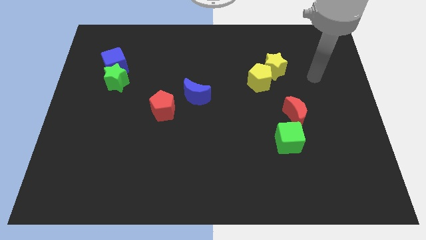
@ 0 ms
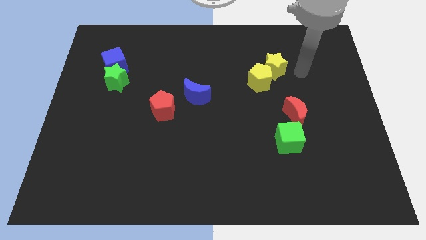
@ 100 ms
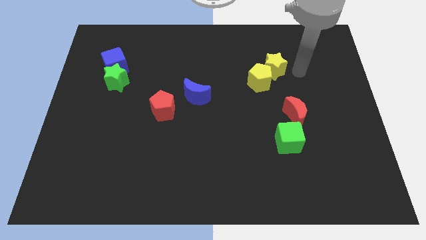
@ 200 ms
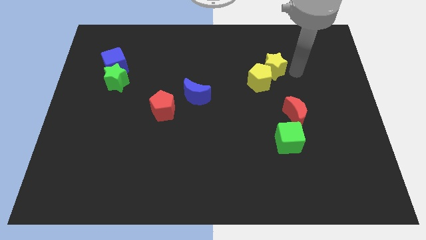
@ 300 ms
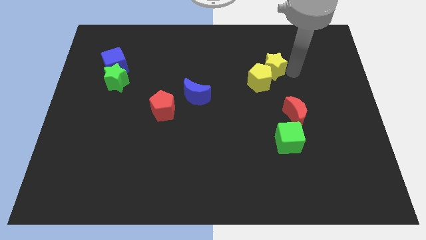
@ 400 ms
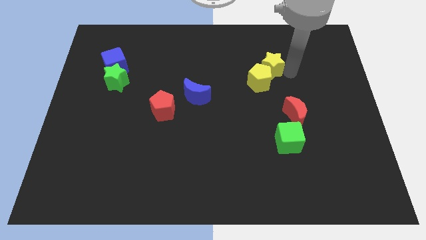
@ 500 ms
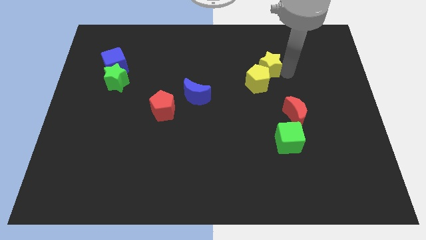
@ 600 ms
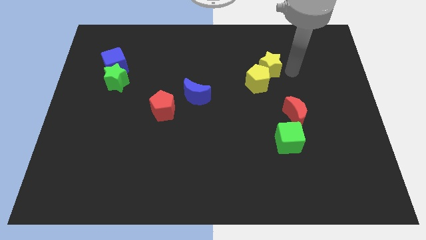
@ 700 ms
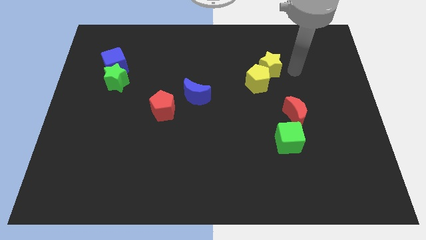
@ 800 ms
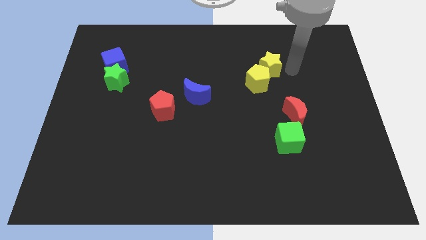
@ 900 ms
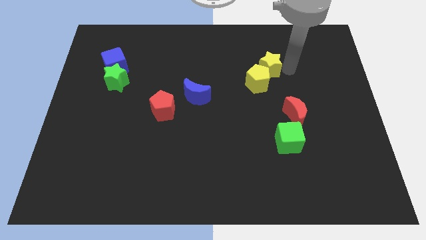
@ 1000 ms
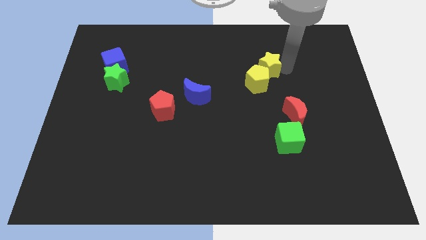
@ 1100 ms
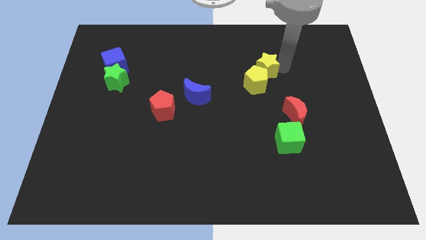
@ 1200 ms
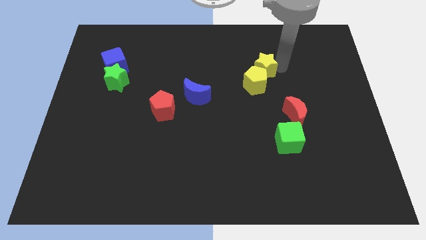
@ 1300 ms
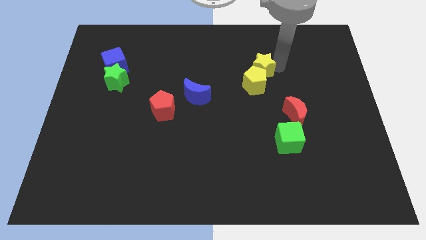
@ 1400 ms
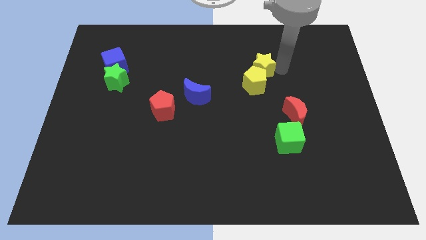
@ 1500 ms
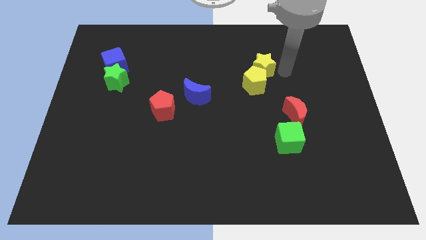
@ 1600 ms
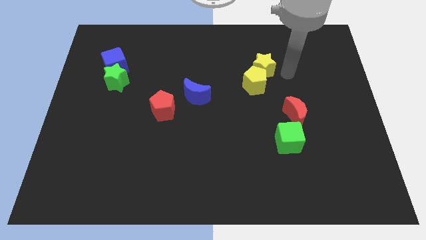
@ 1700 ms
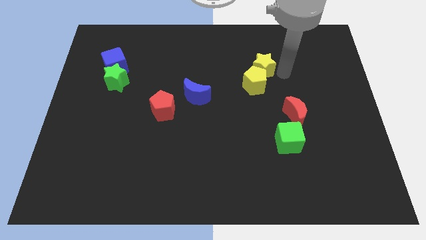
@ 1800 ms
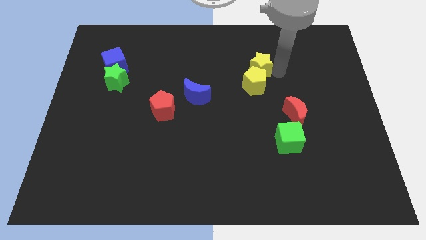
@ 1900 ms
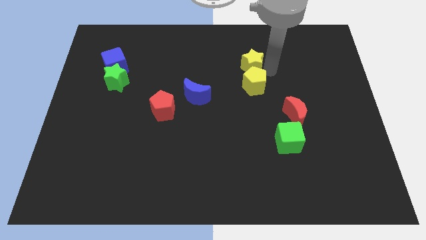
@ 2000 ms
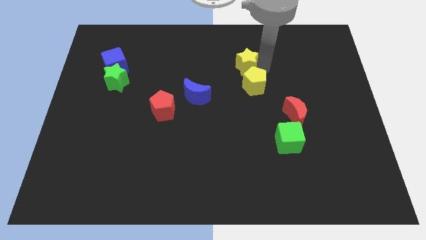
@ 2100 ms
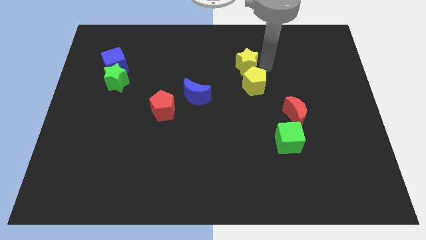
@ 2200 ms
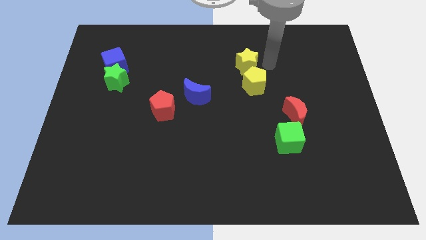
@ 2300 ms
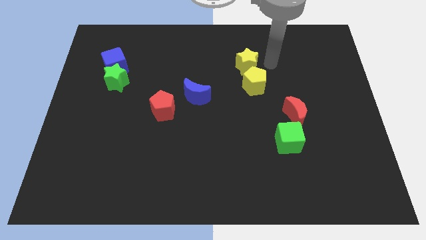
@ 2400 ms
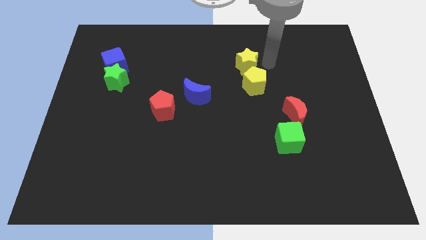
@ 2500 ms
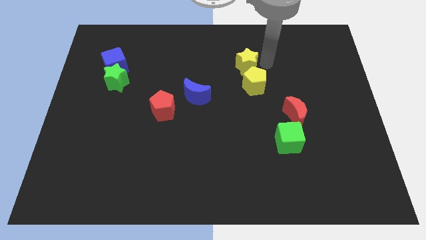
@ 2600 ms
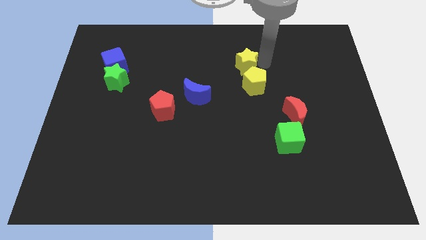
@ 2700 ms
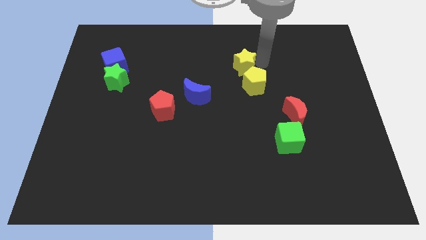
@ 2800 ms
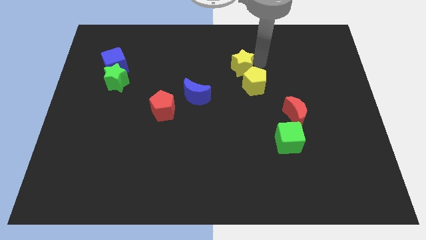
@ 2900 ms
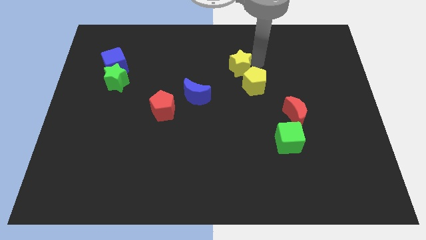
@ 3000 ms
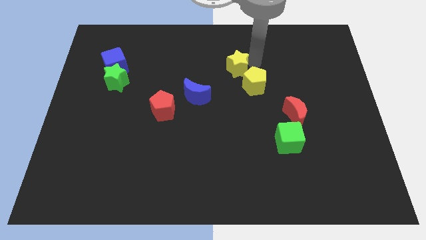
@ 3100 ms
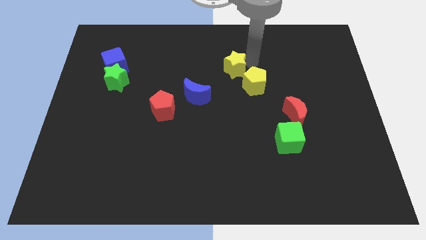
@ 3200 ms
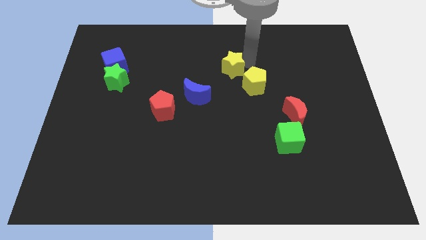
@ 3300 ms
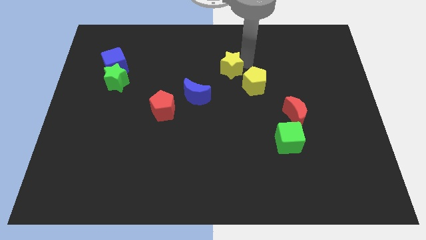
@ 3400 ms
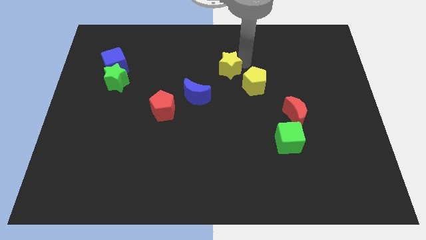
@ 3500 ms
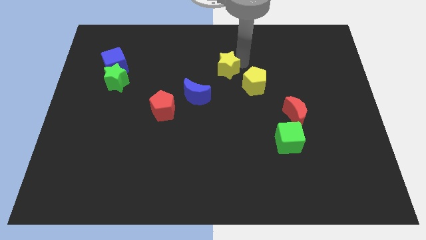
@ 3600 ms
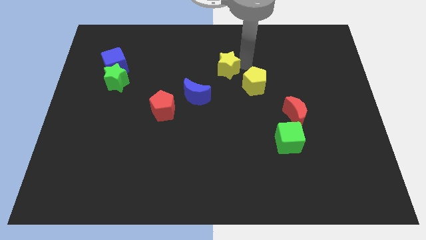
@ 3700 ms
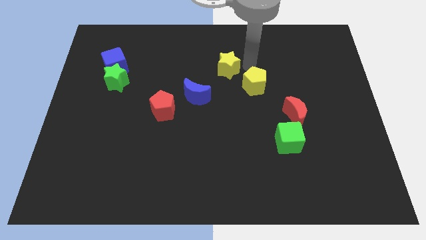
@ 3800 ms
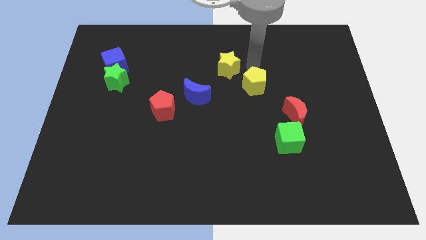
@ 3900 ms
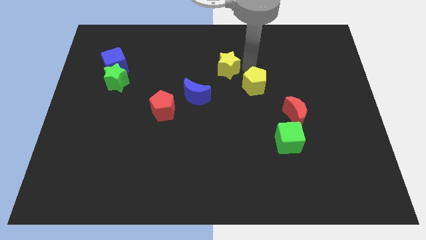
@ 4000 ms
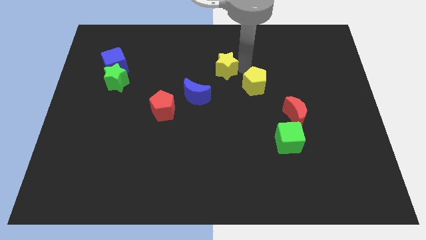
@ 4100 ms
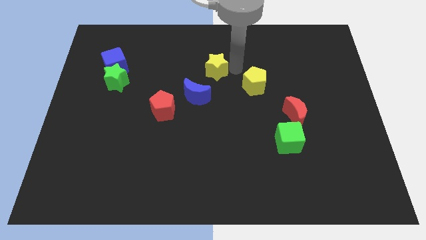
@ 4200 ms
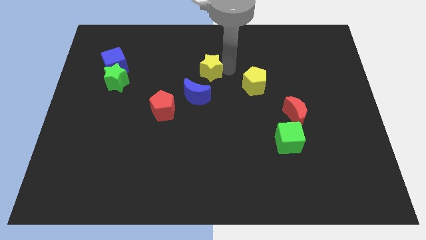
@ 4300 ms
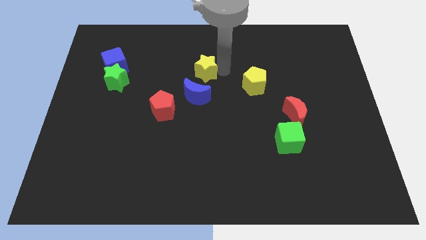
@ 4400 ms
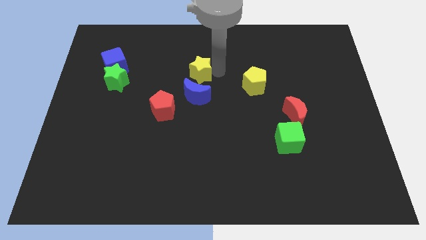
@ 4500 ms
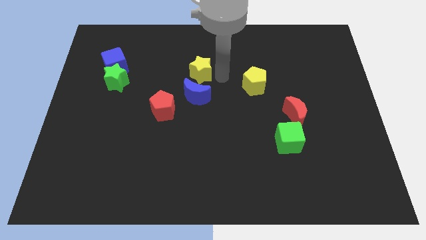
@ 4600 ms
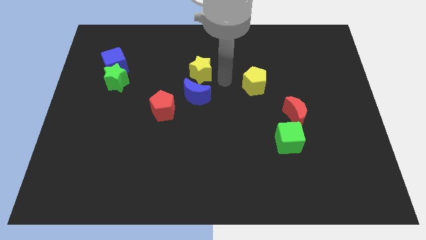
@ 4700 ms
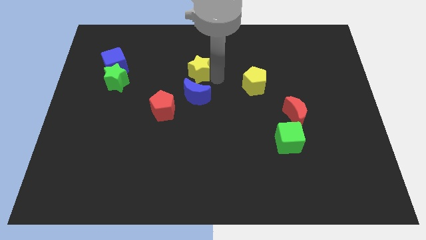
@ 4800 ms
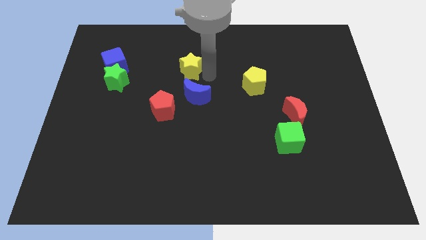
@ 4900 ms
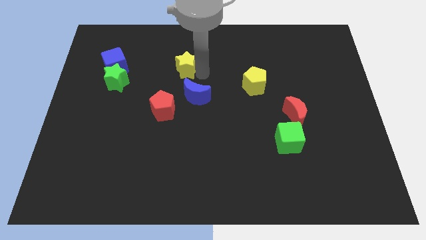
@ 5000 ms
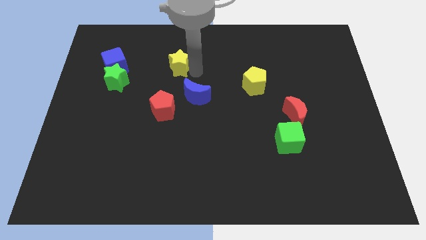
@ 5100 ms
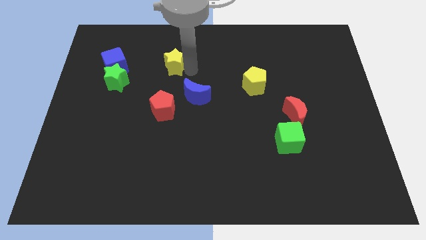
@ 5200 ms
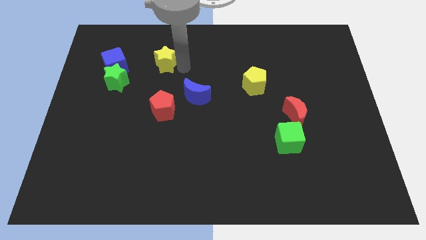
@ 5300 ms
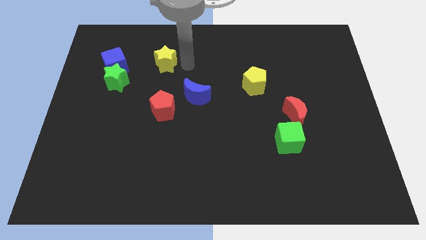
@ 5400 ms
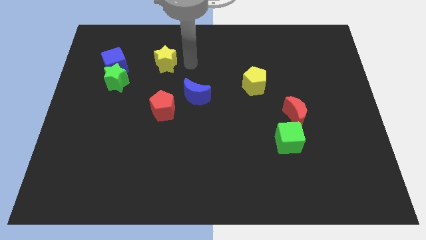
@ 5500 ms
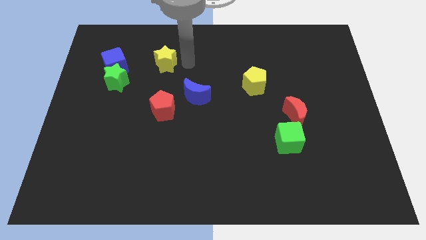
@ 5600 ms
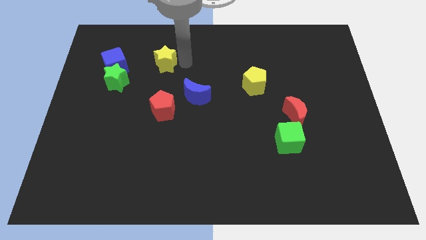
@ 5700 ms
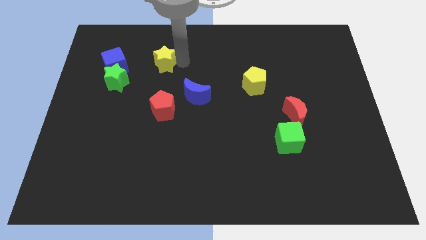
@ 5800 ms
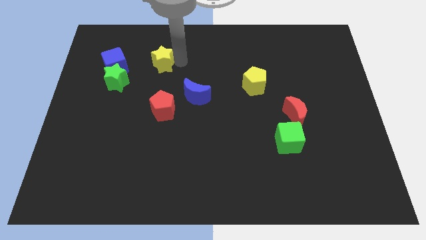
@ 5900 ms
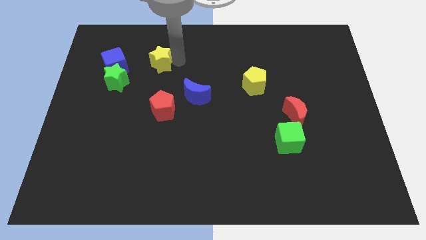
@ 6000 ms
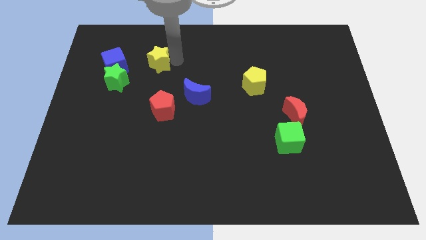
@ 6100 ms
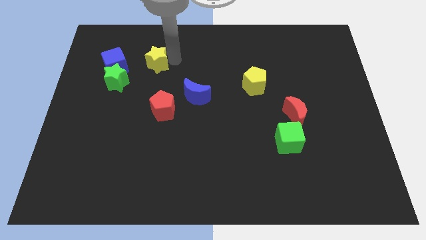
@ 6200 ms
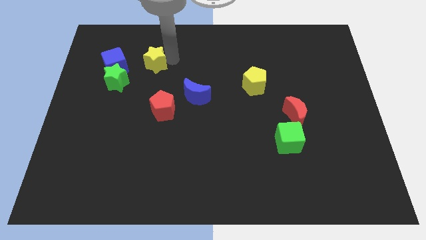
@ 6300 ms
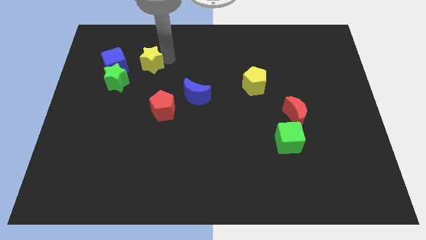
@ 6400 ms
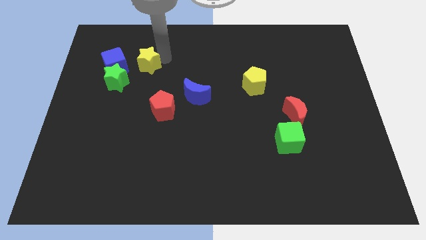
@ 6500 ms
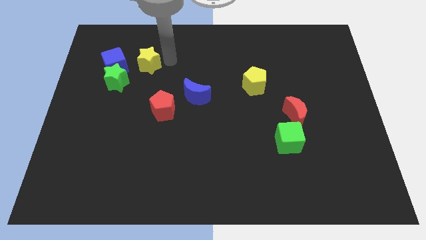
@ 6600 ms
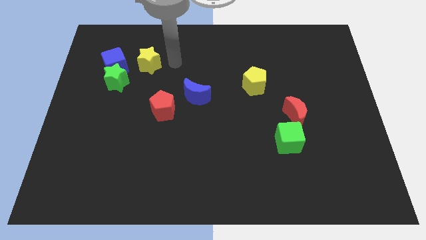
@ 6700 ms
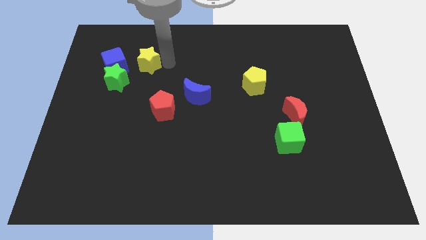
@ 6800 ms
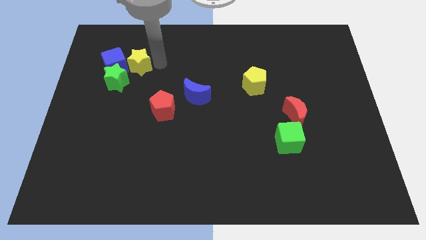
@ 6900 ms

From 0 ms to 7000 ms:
push the yellow star towards the blue cube
